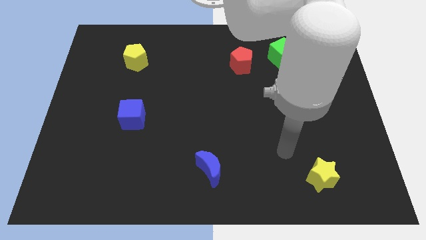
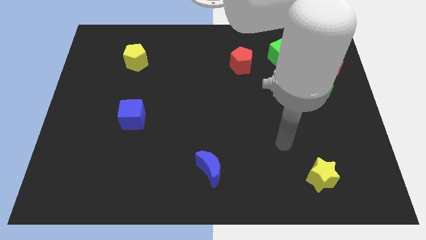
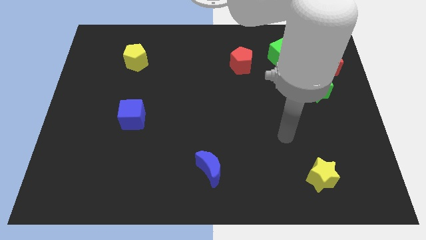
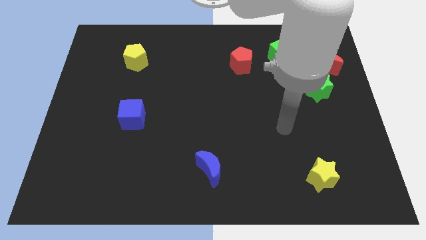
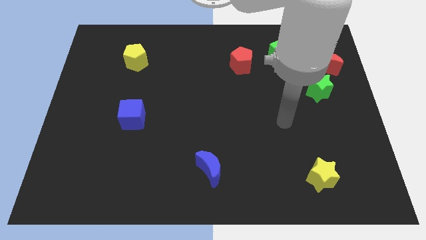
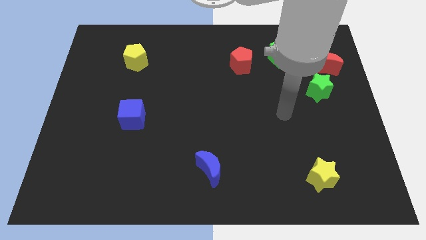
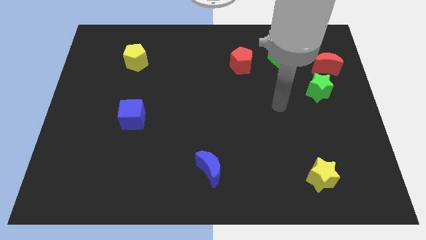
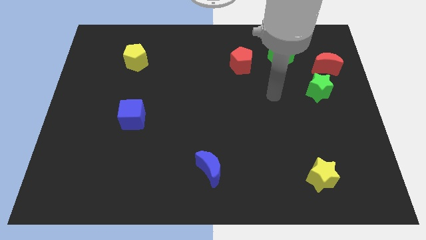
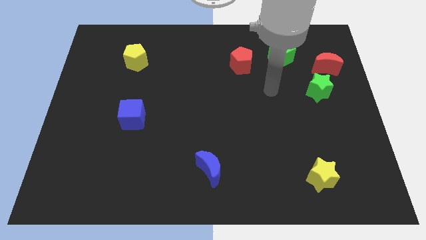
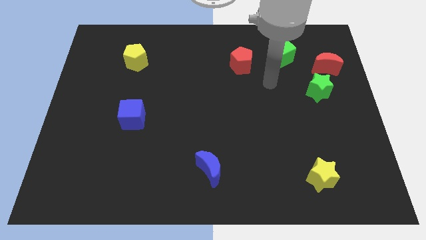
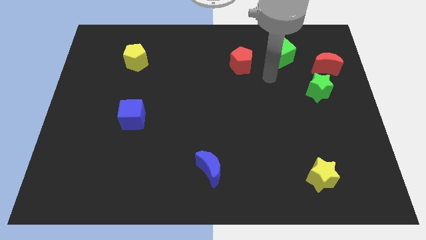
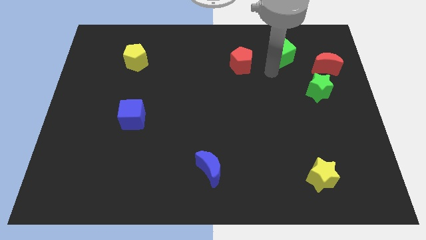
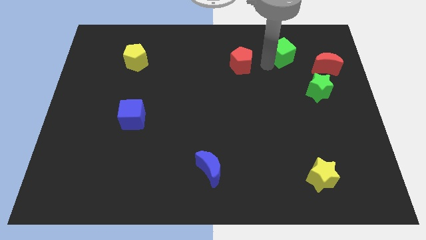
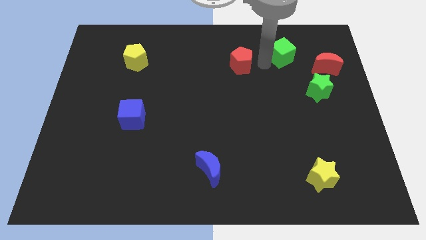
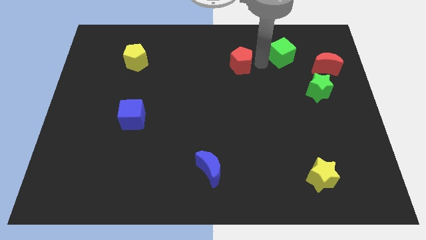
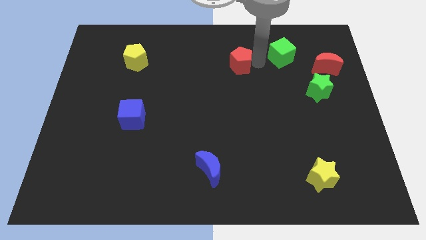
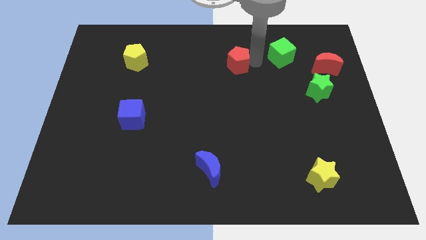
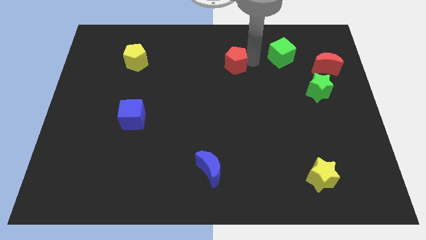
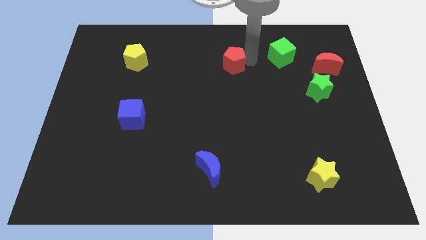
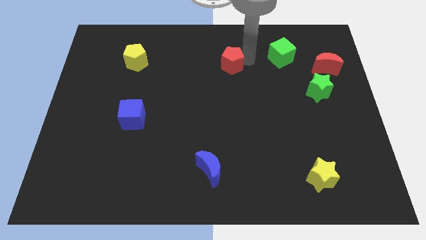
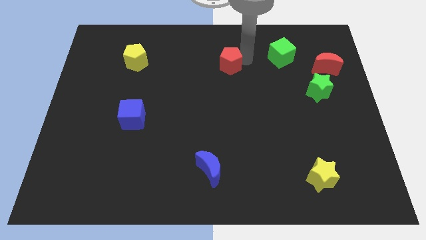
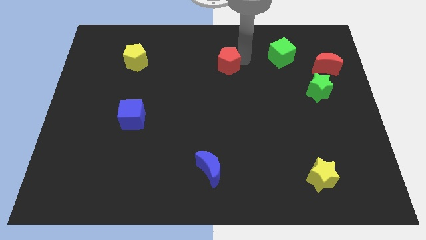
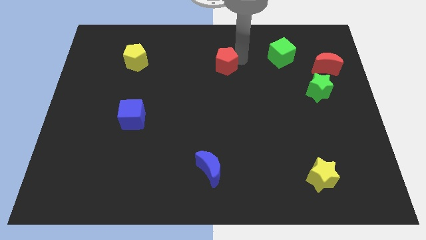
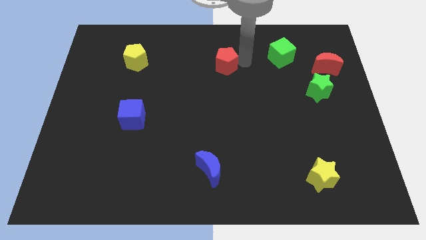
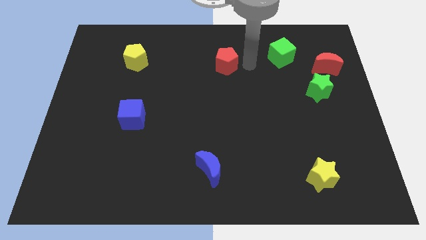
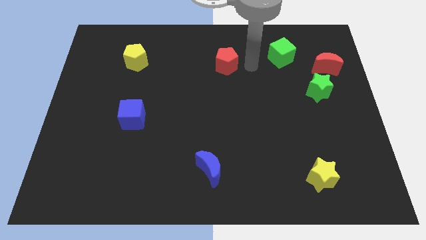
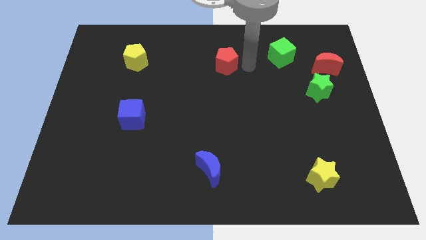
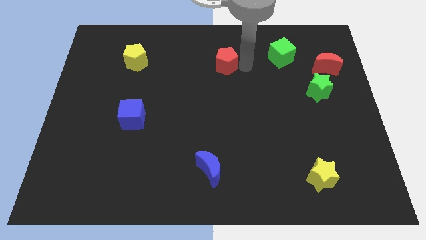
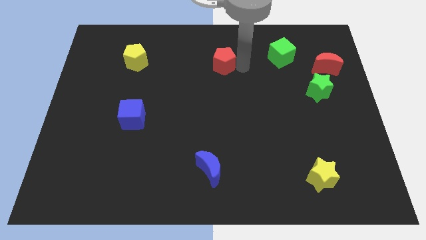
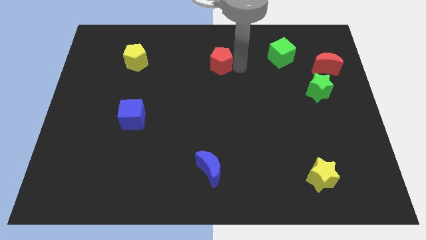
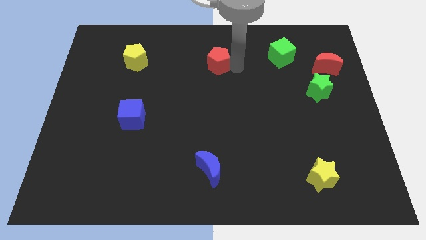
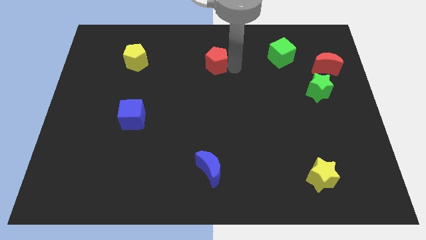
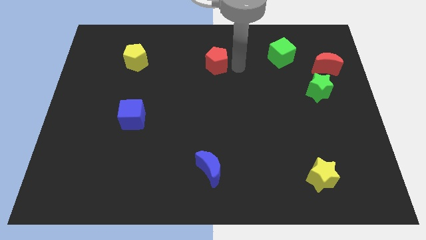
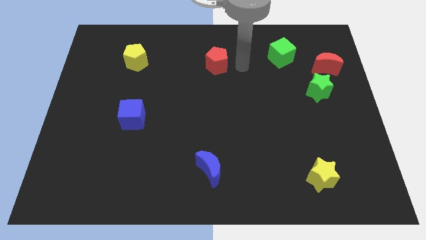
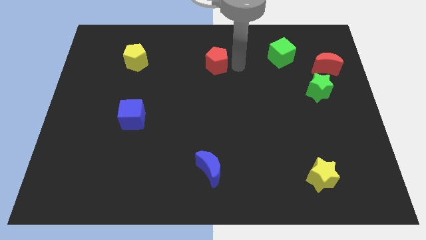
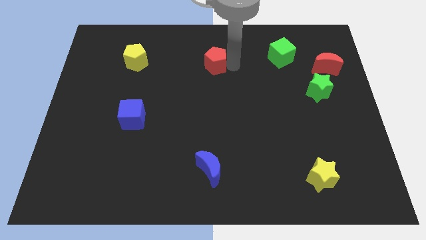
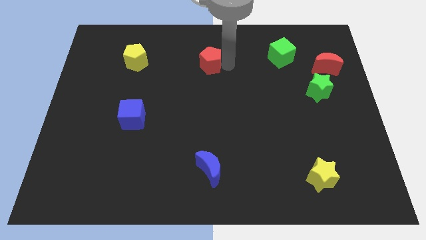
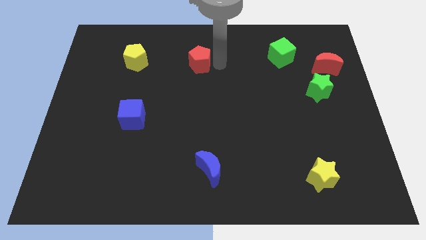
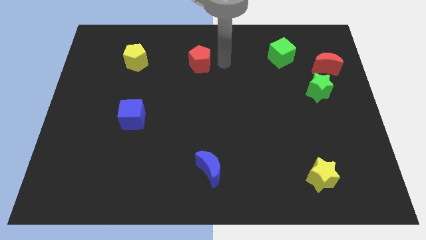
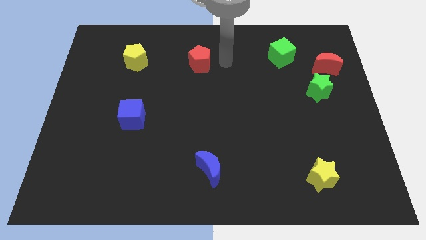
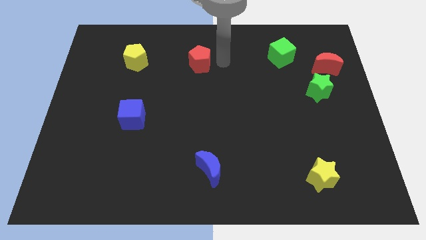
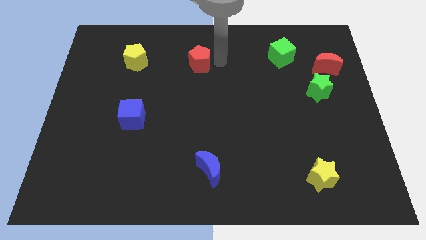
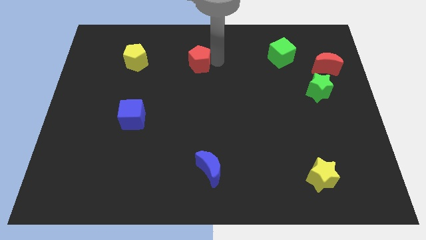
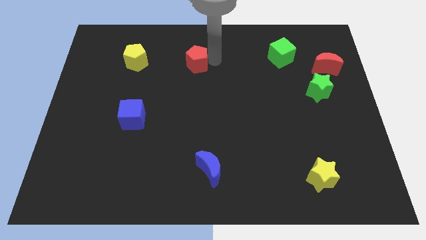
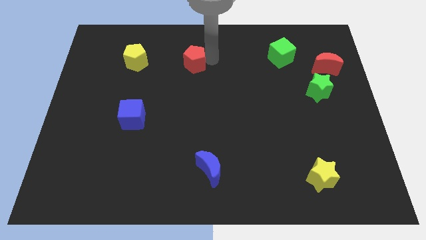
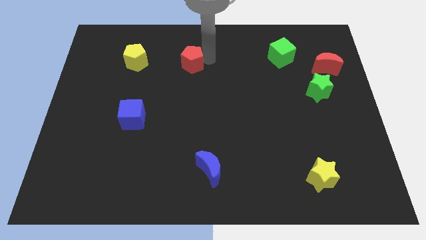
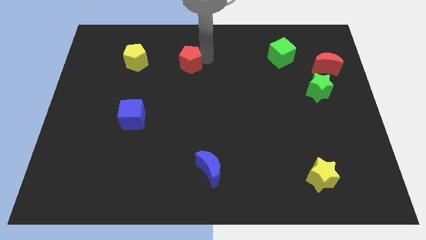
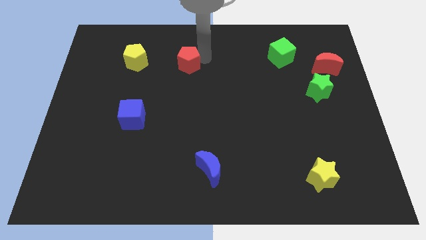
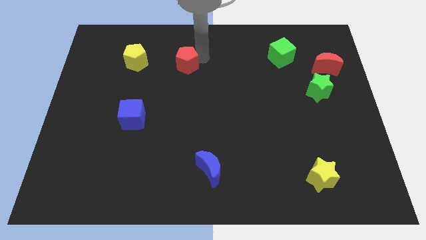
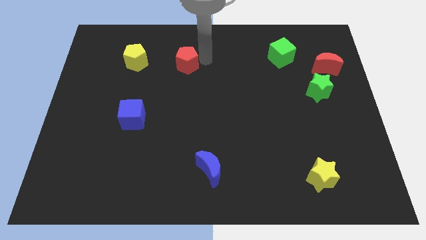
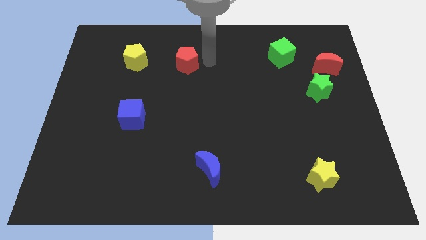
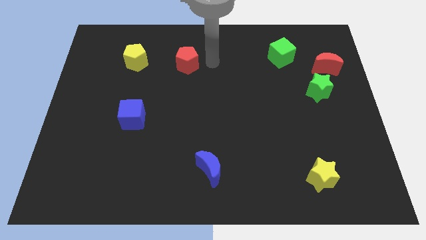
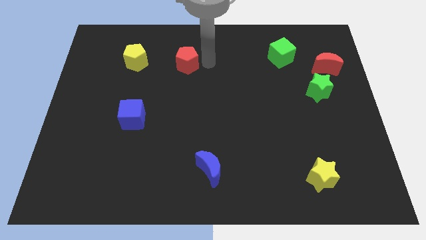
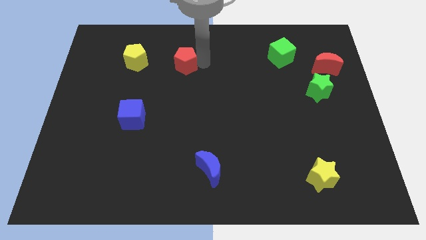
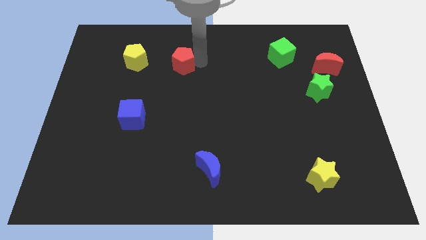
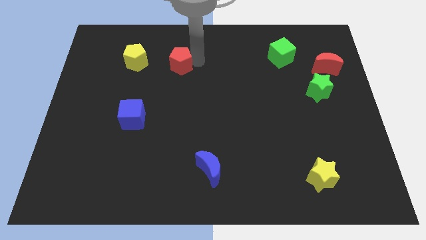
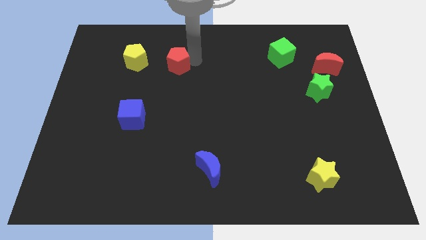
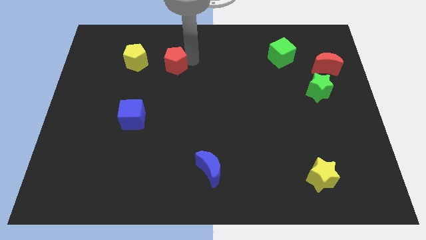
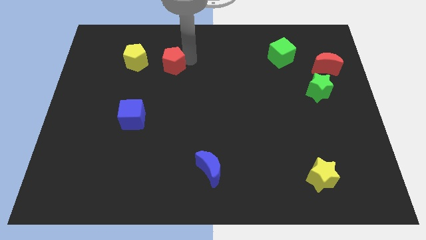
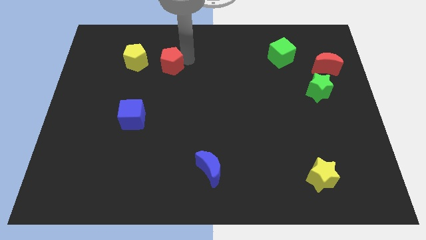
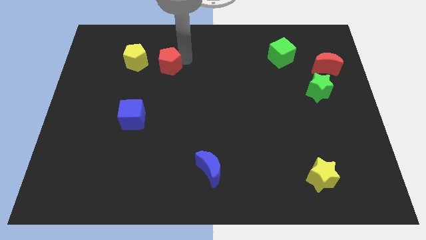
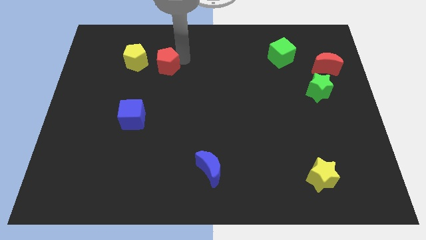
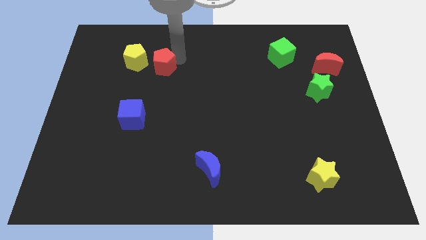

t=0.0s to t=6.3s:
slide the red pentagon to the left

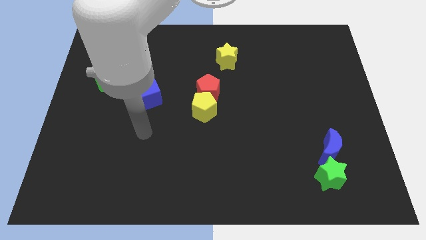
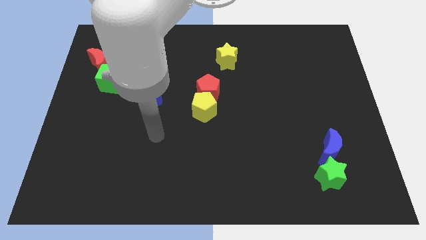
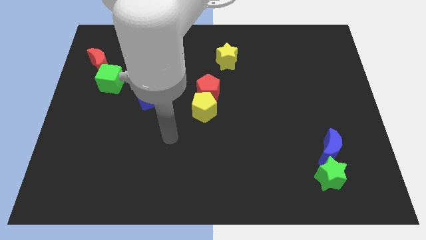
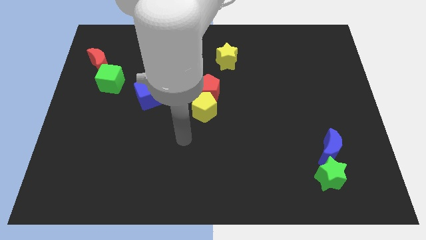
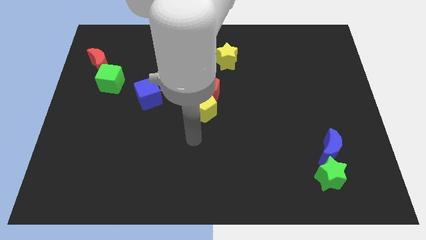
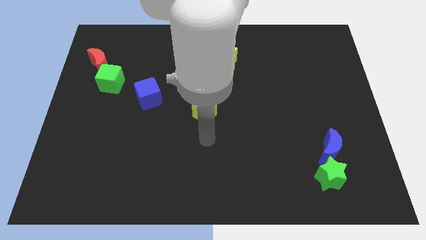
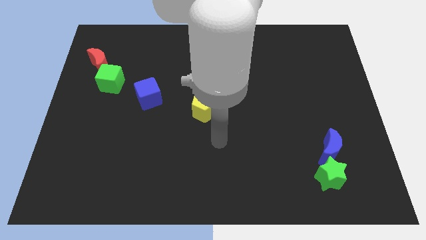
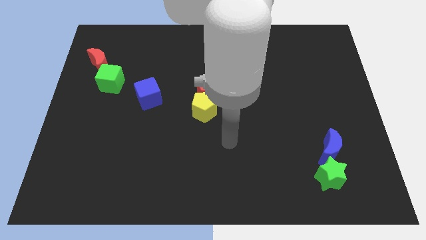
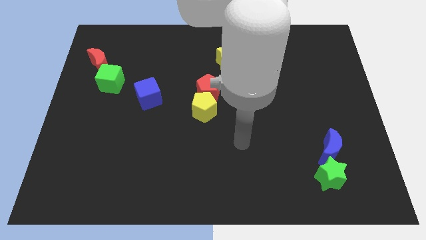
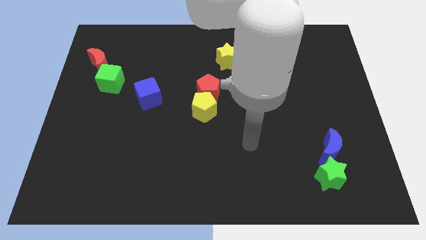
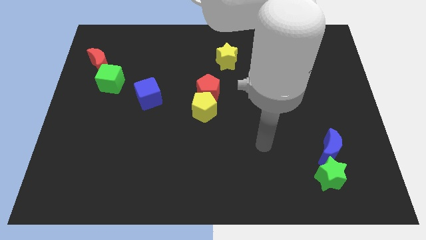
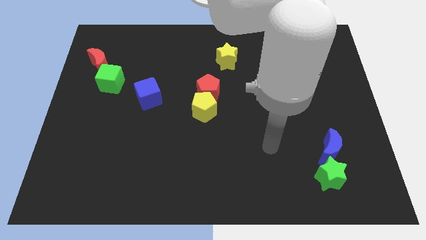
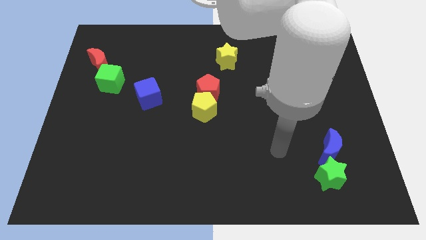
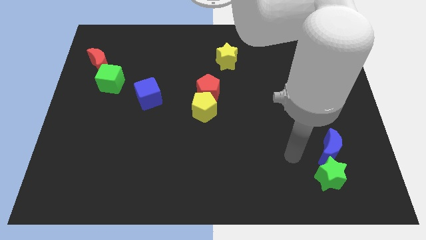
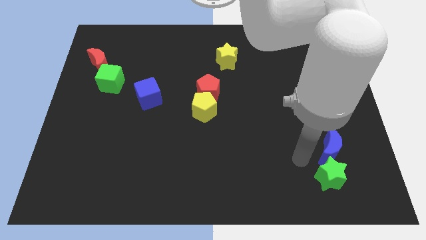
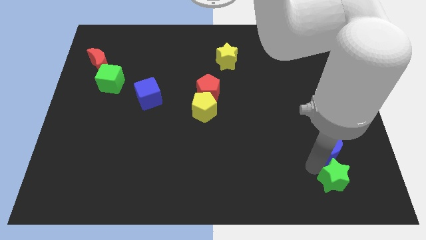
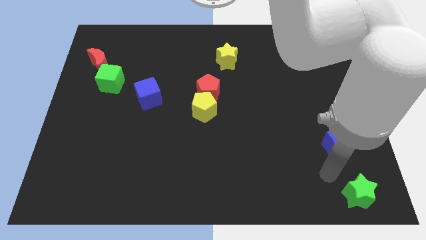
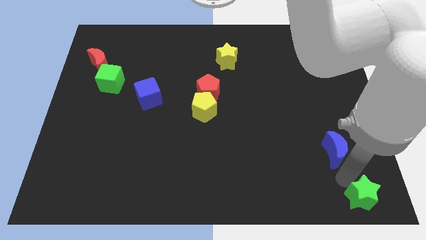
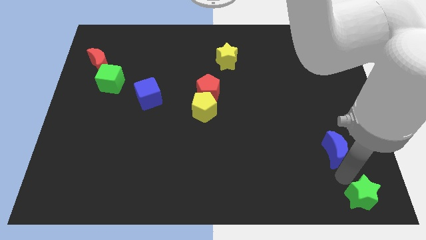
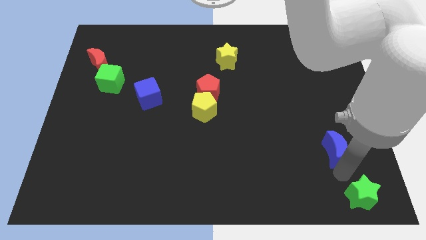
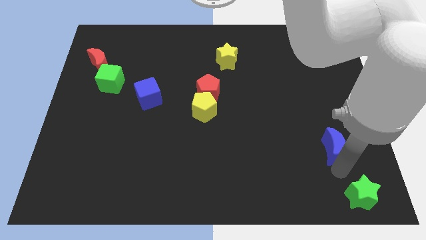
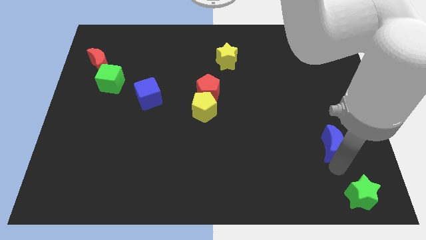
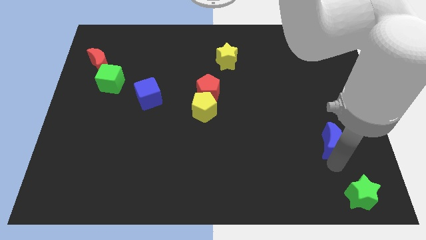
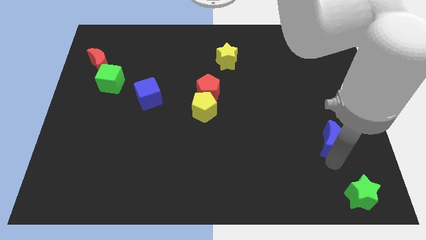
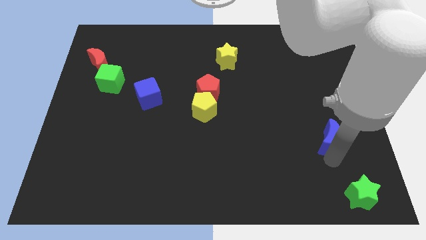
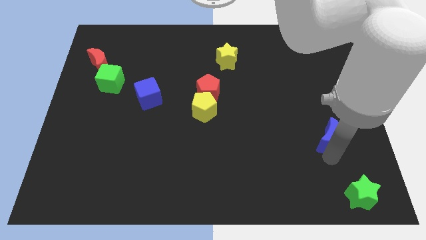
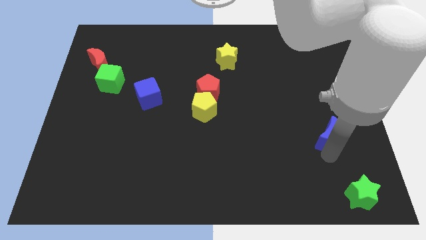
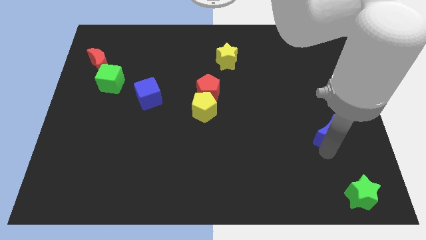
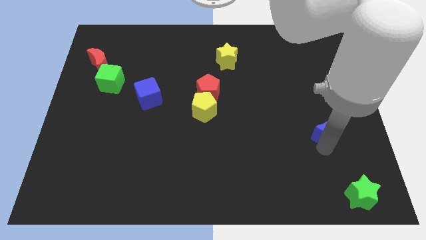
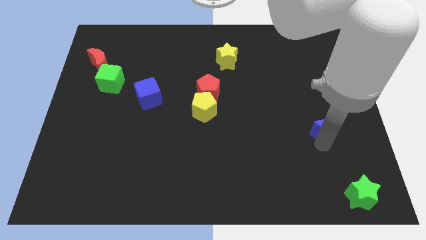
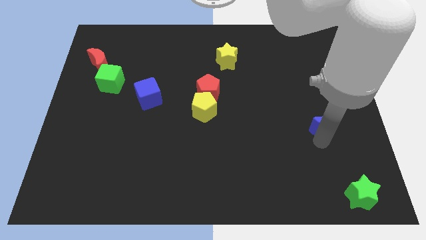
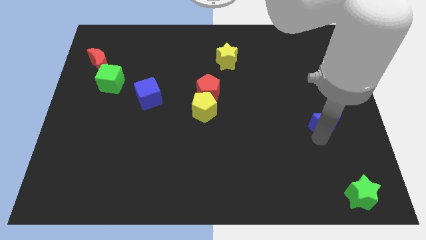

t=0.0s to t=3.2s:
slide the blue moon a little up
